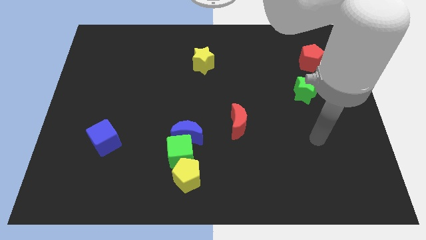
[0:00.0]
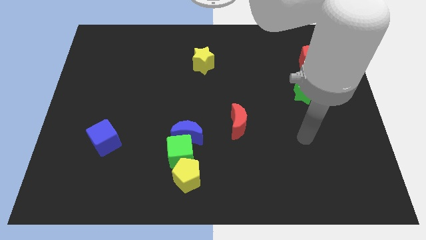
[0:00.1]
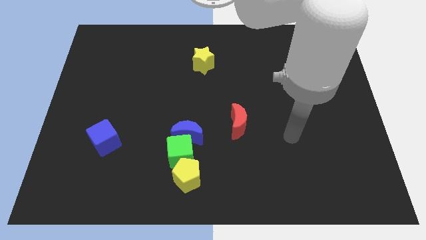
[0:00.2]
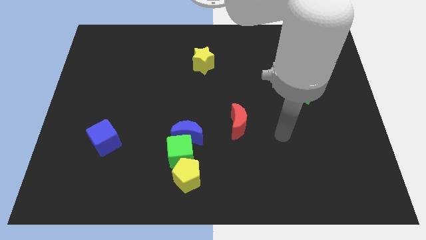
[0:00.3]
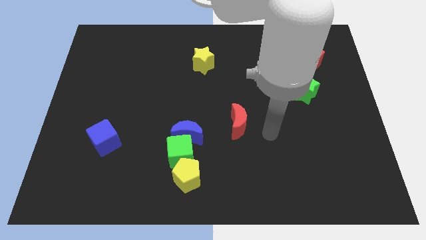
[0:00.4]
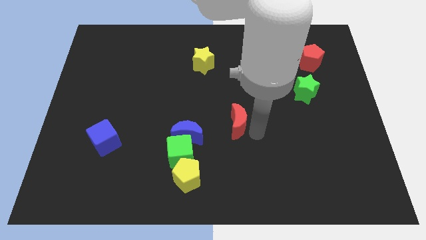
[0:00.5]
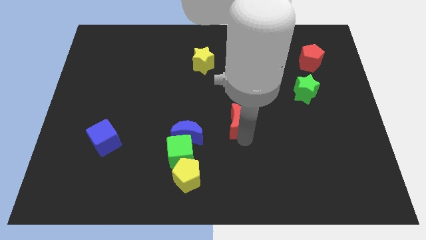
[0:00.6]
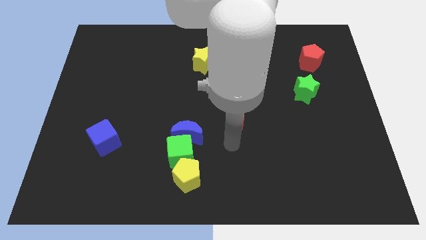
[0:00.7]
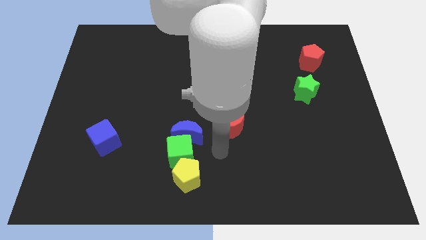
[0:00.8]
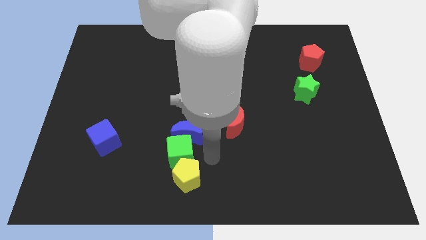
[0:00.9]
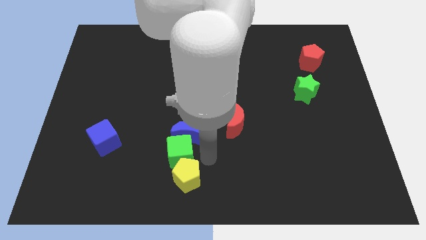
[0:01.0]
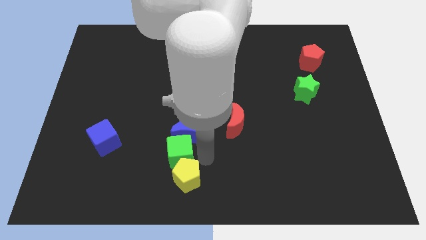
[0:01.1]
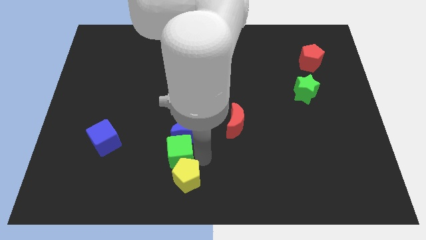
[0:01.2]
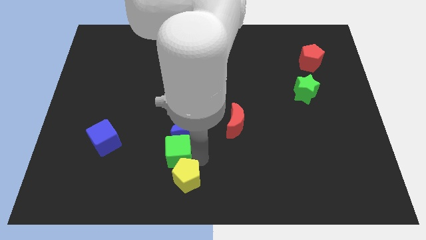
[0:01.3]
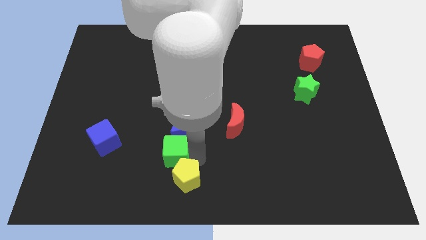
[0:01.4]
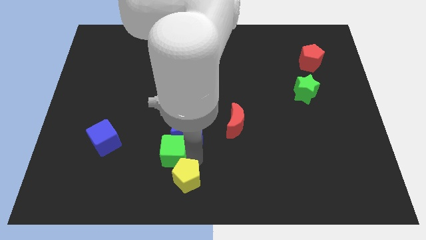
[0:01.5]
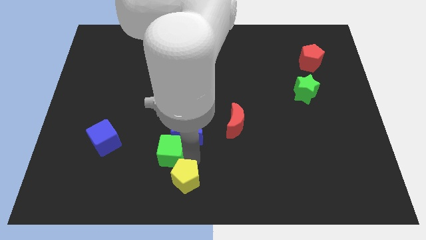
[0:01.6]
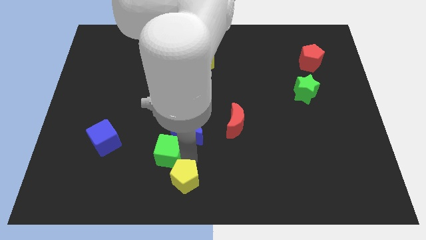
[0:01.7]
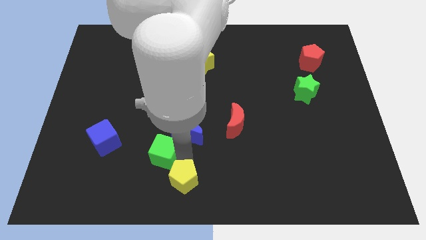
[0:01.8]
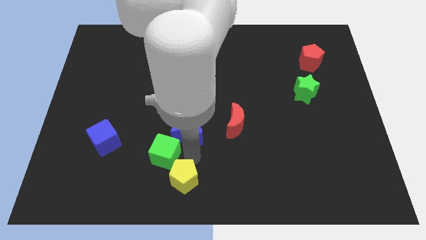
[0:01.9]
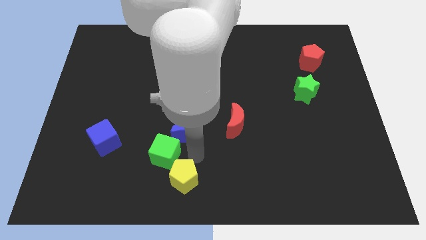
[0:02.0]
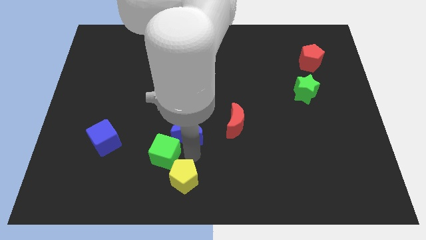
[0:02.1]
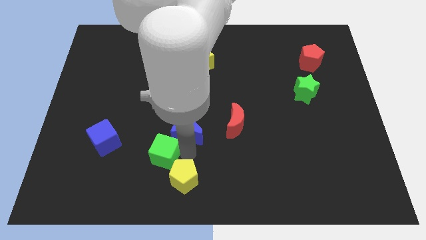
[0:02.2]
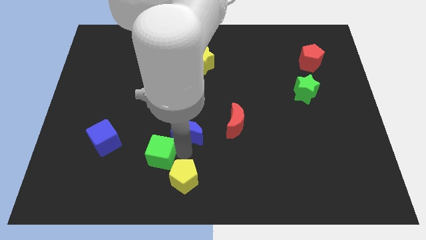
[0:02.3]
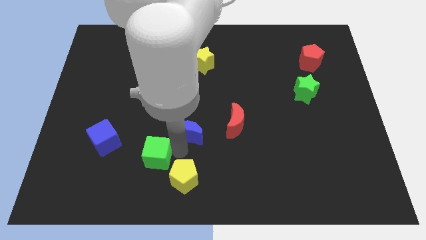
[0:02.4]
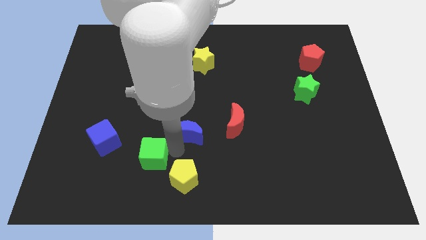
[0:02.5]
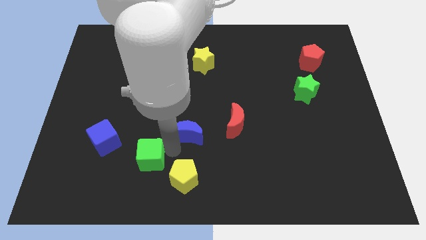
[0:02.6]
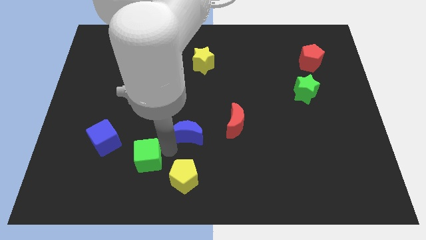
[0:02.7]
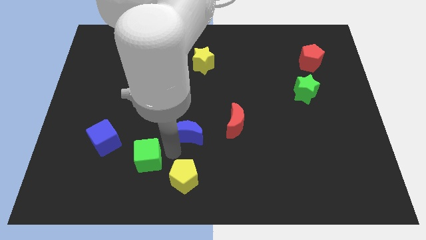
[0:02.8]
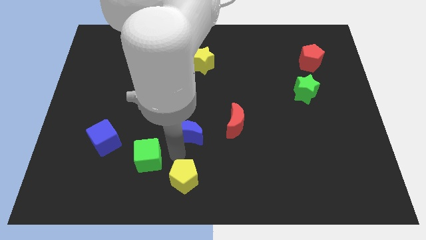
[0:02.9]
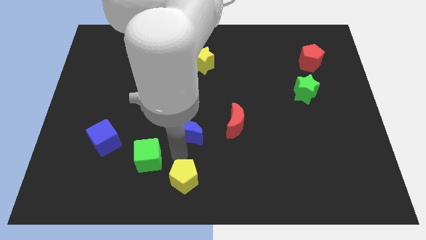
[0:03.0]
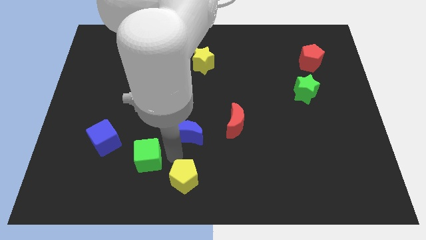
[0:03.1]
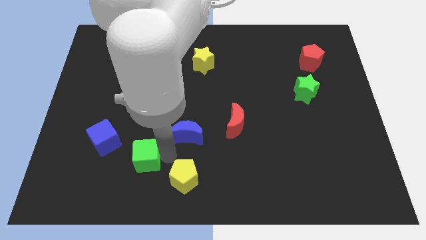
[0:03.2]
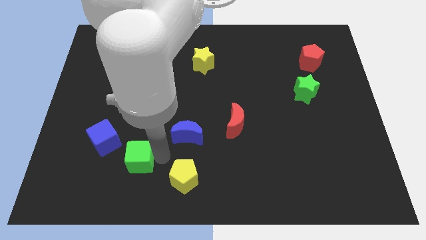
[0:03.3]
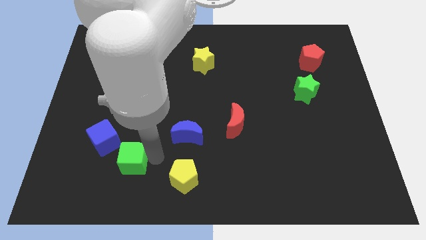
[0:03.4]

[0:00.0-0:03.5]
pull the green cube apart from the blue moon and yellow pentagon

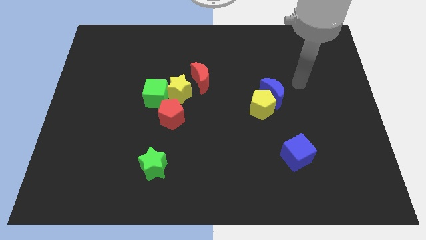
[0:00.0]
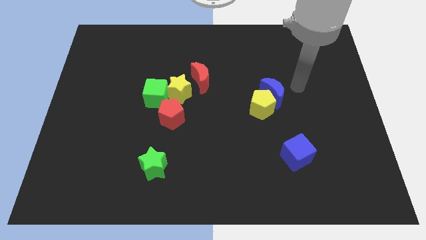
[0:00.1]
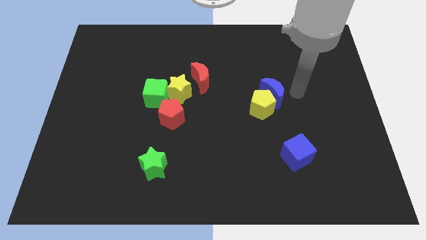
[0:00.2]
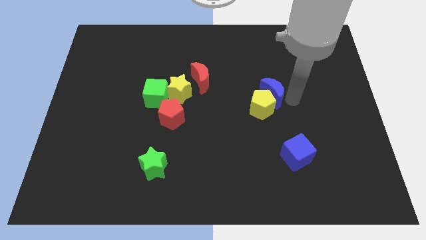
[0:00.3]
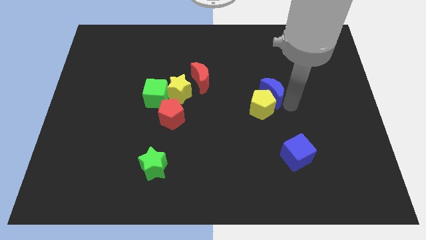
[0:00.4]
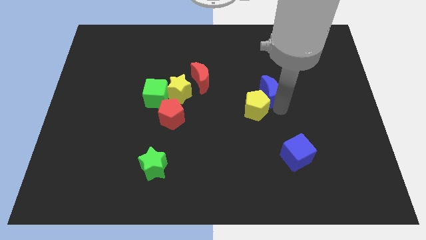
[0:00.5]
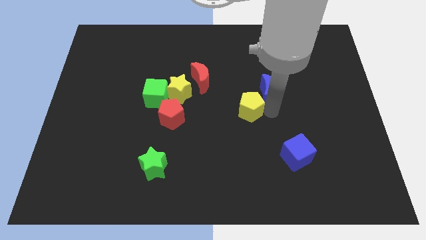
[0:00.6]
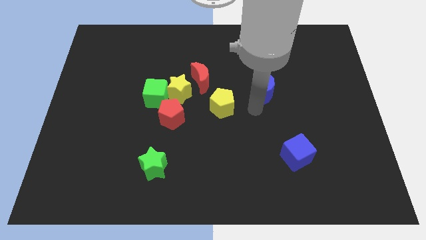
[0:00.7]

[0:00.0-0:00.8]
move the blue moon away from the yellow pentagon

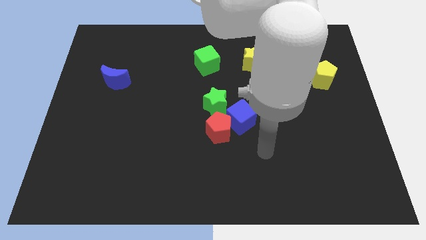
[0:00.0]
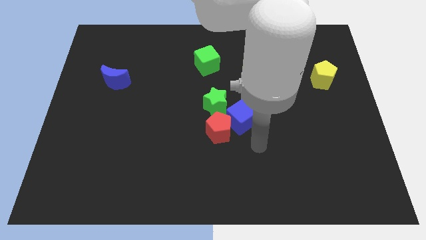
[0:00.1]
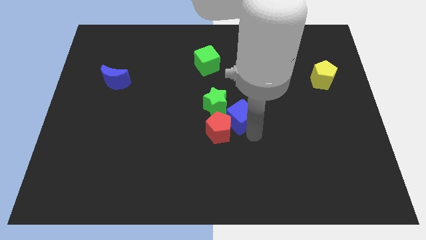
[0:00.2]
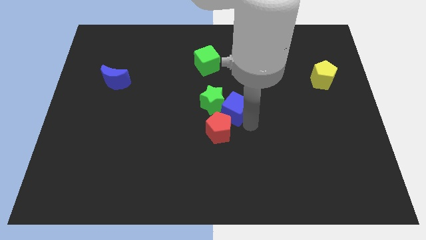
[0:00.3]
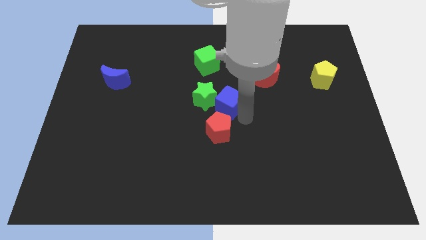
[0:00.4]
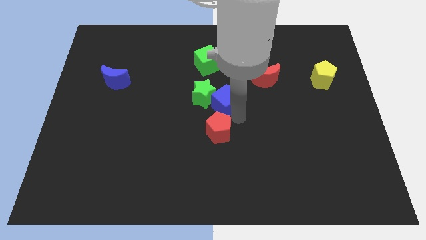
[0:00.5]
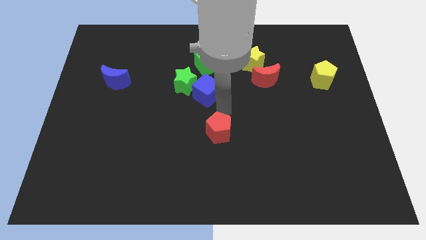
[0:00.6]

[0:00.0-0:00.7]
move the red pentagon away from the blue cube and green star

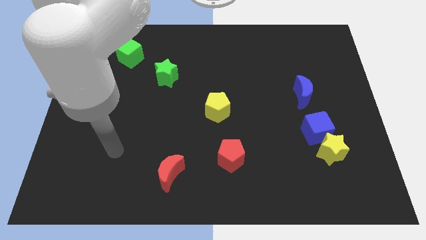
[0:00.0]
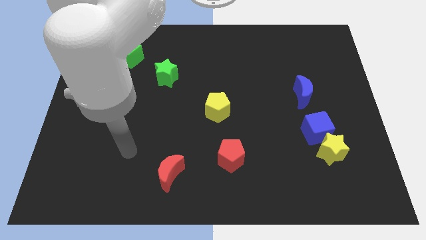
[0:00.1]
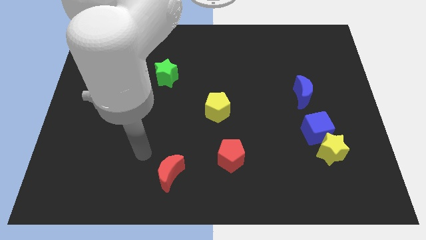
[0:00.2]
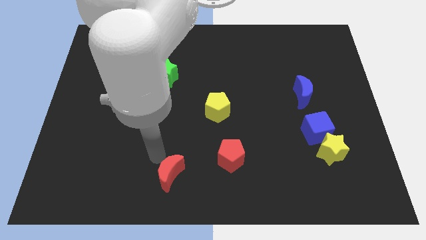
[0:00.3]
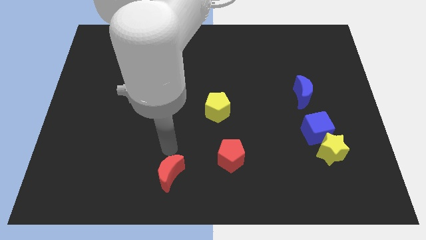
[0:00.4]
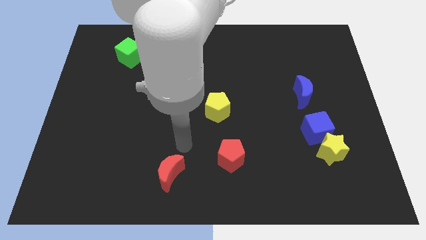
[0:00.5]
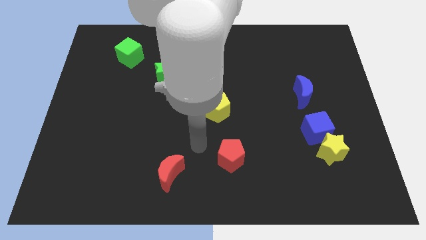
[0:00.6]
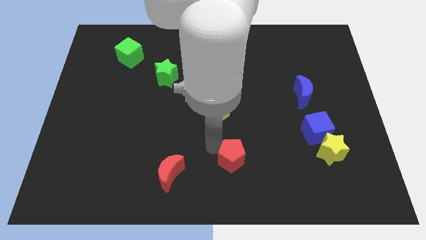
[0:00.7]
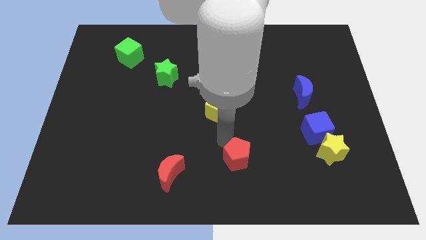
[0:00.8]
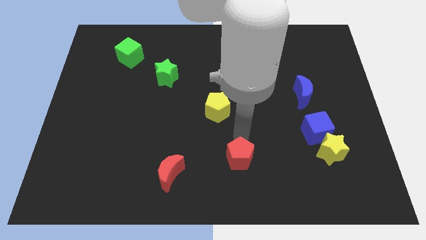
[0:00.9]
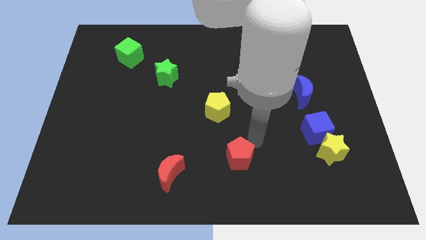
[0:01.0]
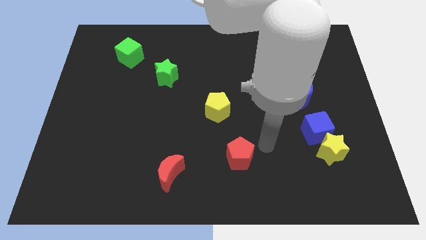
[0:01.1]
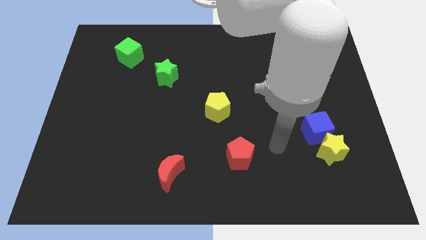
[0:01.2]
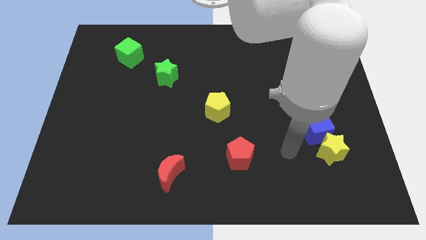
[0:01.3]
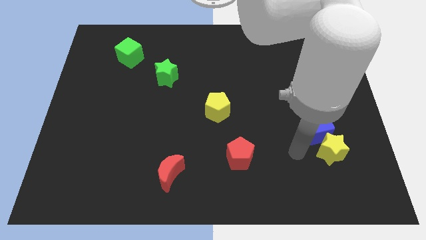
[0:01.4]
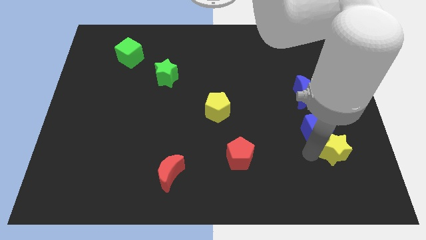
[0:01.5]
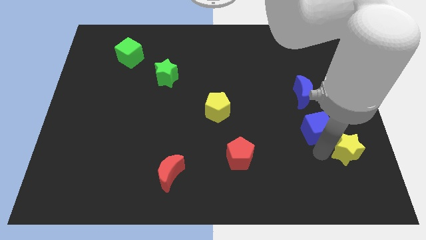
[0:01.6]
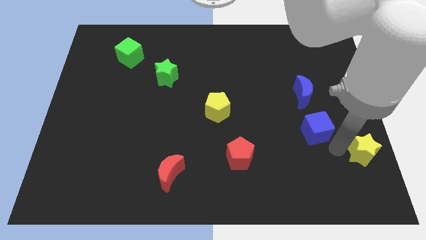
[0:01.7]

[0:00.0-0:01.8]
move the blue cube away from the yellow star

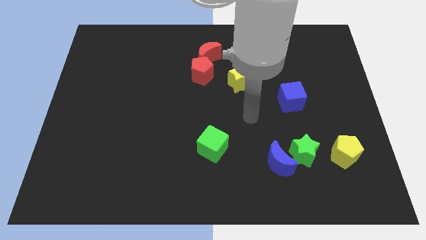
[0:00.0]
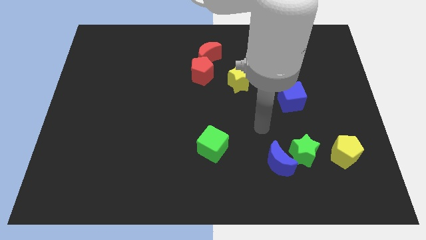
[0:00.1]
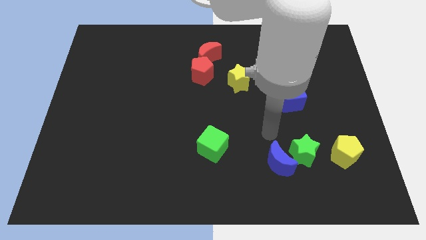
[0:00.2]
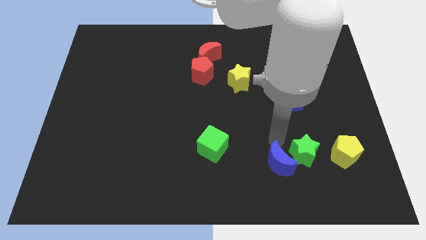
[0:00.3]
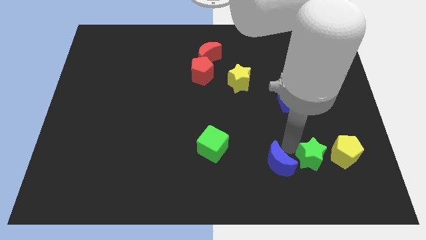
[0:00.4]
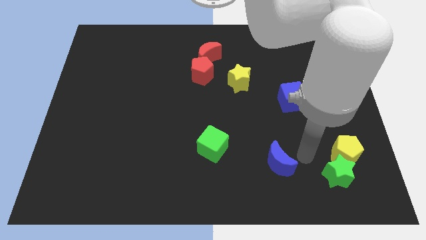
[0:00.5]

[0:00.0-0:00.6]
move the blue moon away from the green star

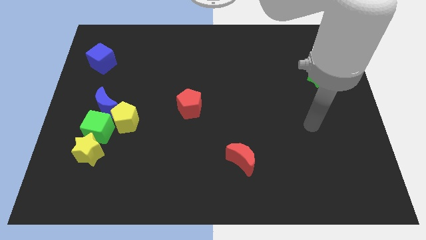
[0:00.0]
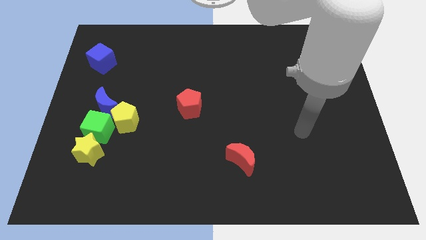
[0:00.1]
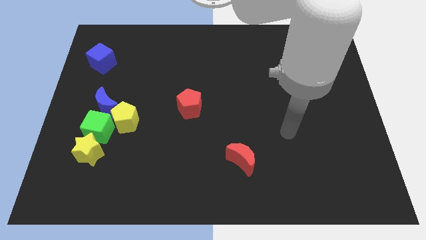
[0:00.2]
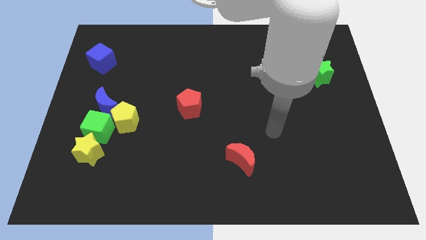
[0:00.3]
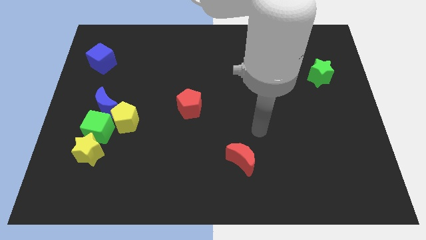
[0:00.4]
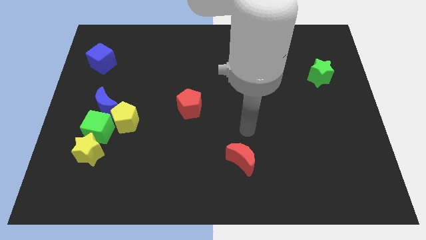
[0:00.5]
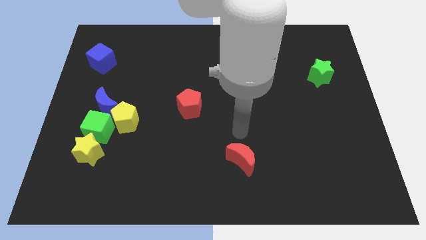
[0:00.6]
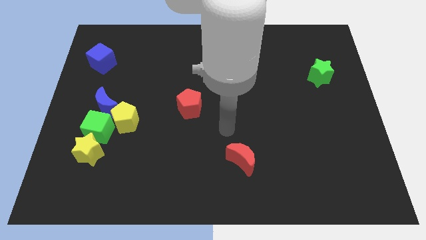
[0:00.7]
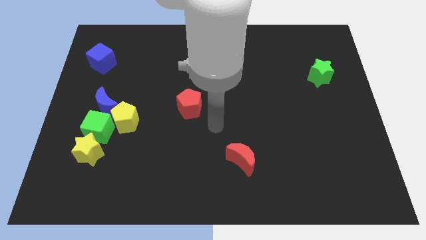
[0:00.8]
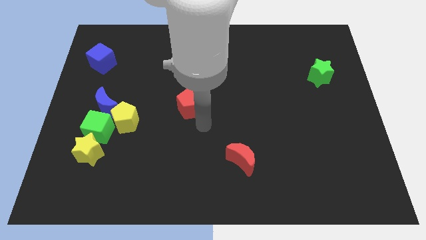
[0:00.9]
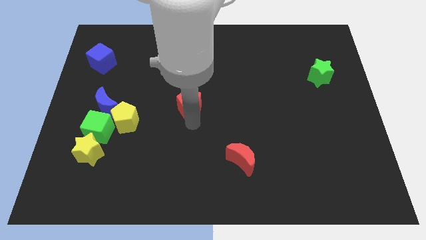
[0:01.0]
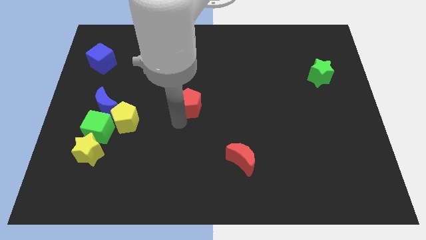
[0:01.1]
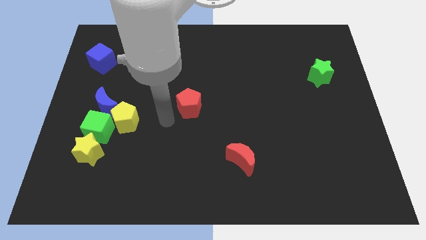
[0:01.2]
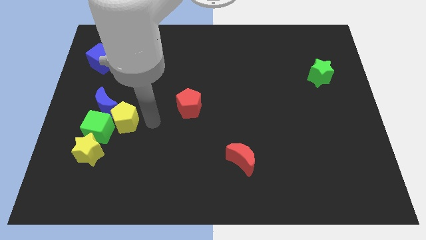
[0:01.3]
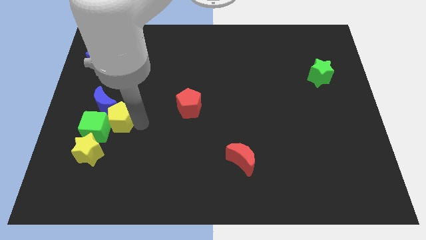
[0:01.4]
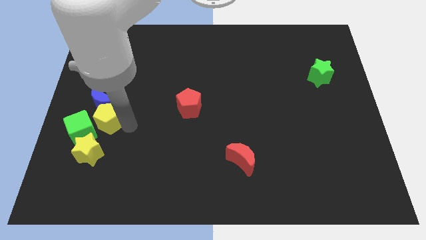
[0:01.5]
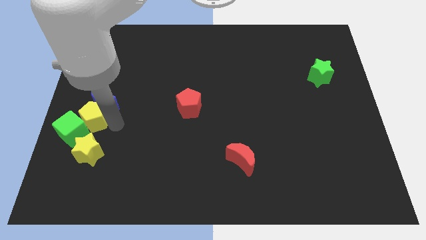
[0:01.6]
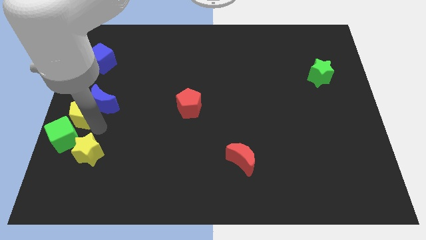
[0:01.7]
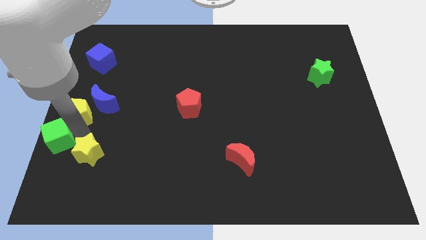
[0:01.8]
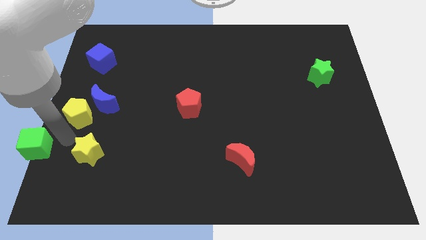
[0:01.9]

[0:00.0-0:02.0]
pull the yellow star apart from the green cube
